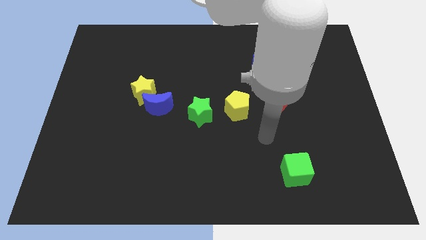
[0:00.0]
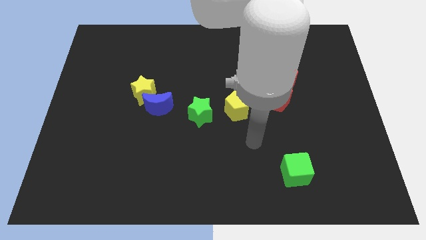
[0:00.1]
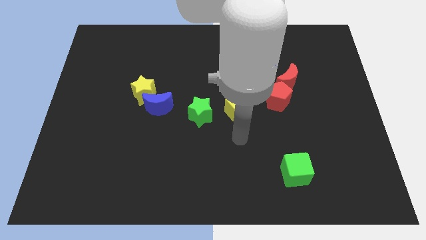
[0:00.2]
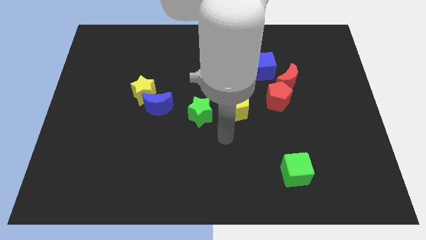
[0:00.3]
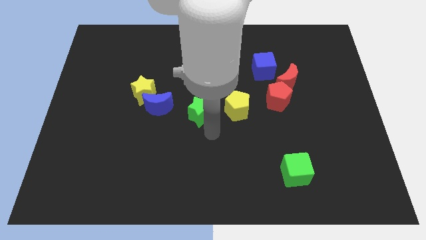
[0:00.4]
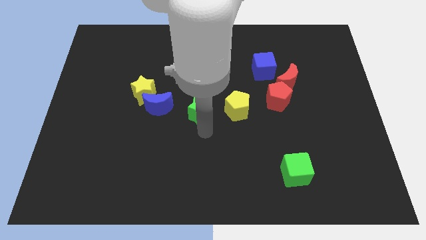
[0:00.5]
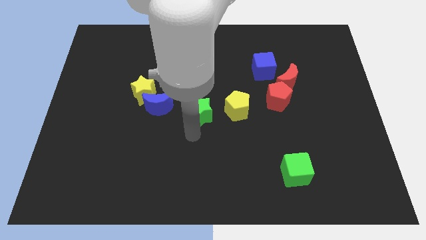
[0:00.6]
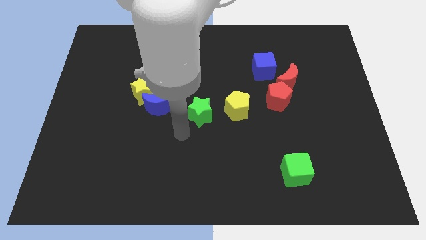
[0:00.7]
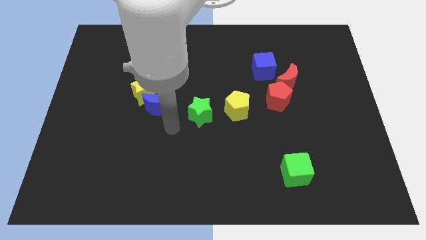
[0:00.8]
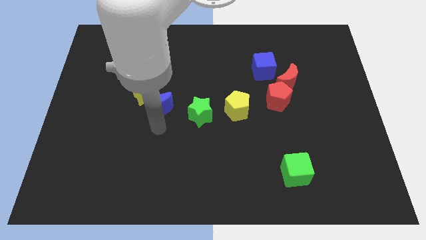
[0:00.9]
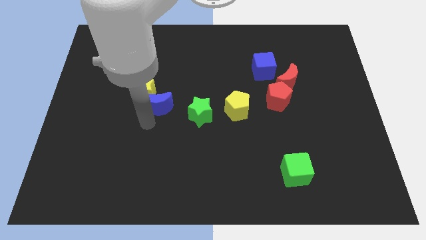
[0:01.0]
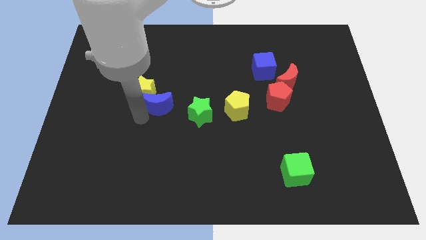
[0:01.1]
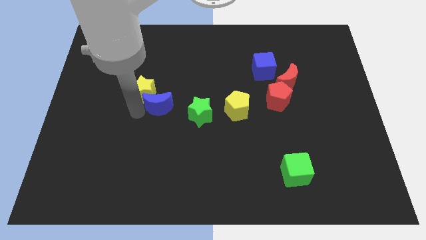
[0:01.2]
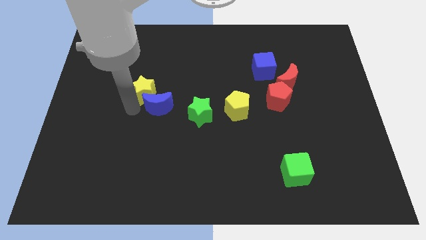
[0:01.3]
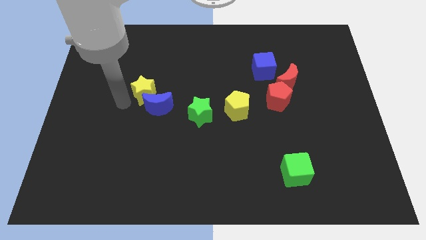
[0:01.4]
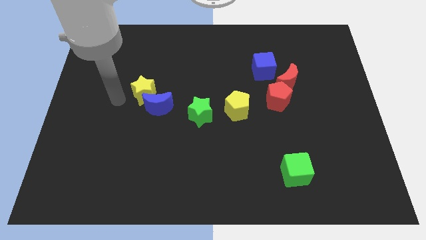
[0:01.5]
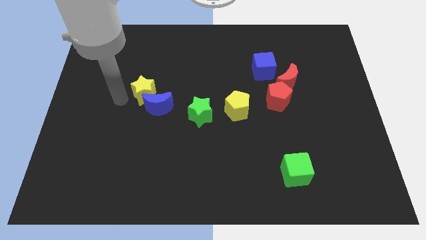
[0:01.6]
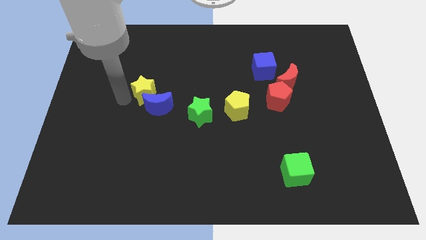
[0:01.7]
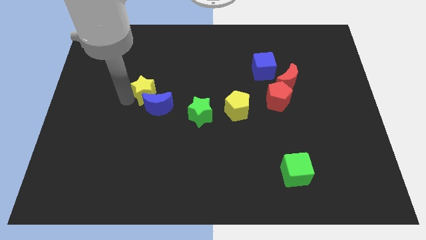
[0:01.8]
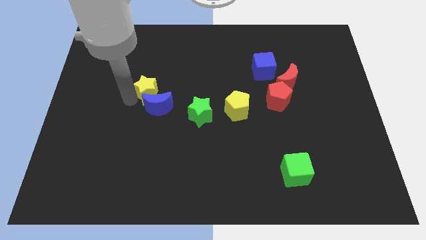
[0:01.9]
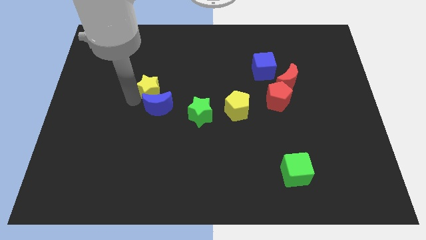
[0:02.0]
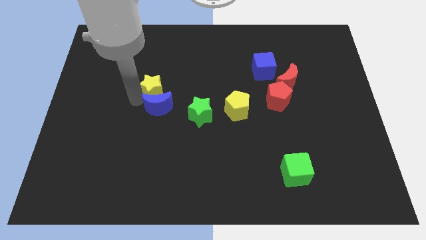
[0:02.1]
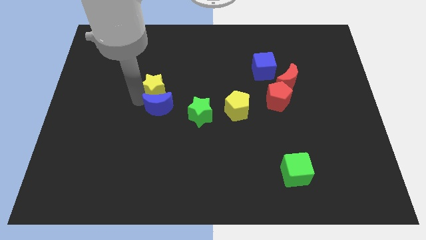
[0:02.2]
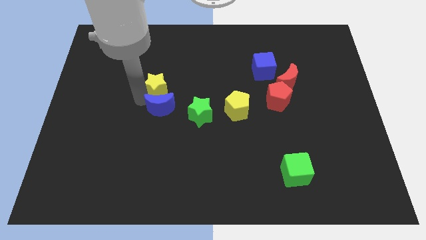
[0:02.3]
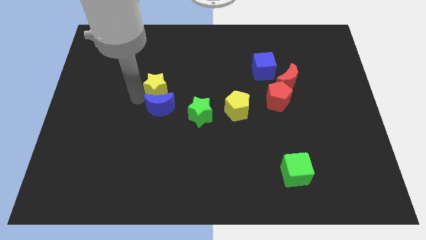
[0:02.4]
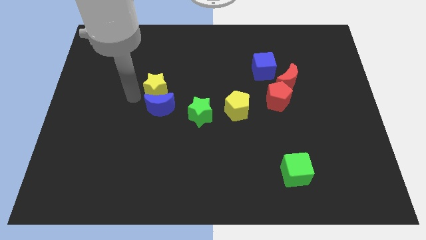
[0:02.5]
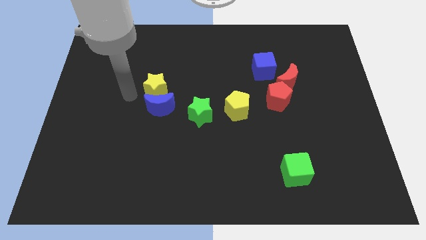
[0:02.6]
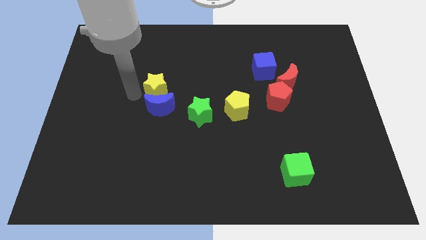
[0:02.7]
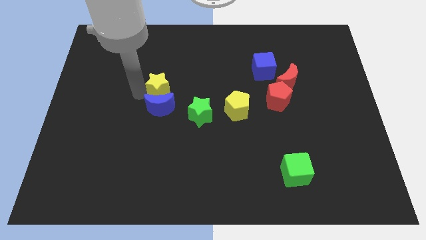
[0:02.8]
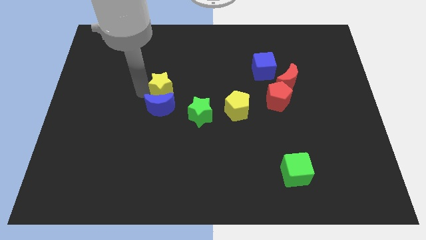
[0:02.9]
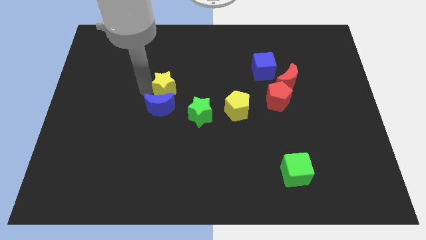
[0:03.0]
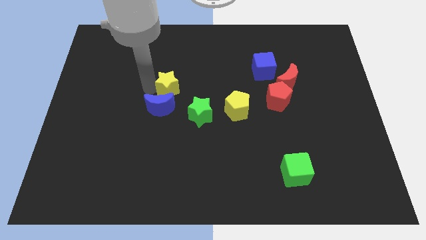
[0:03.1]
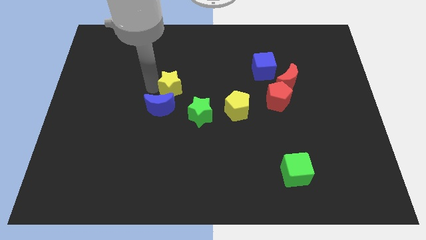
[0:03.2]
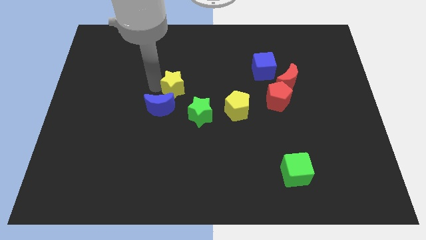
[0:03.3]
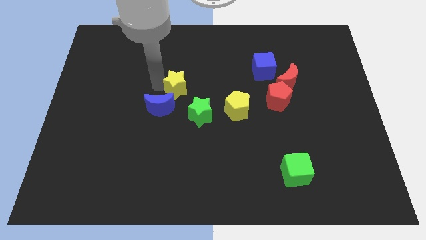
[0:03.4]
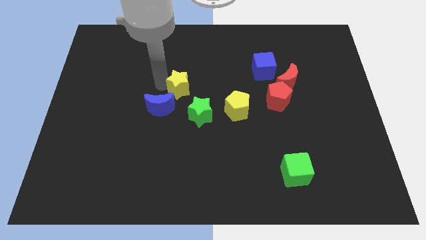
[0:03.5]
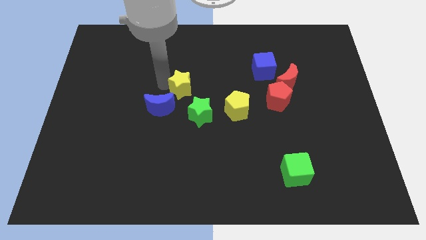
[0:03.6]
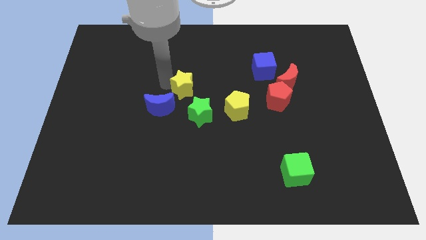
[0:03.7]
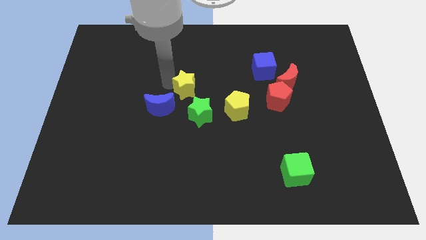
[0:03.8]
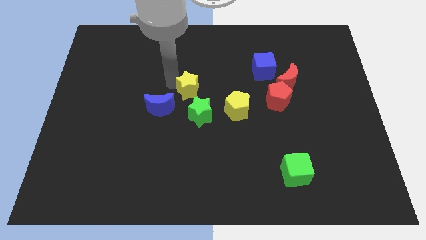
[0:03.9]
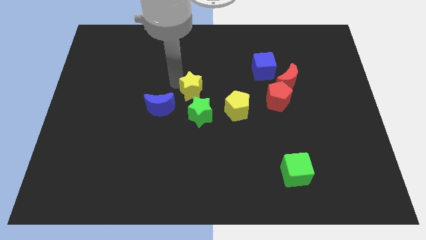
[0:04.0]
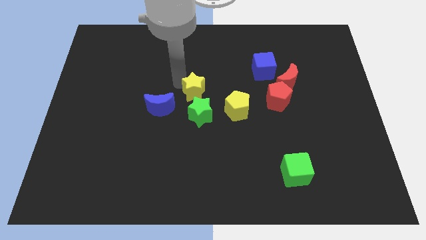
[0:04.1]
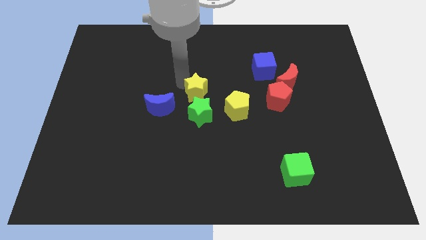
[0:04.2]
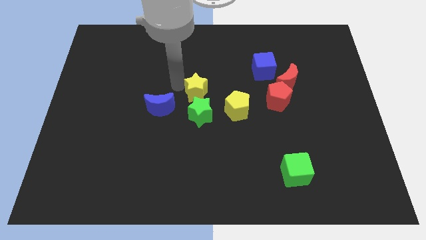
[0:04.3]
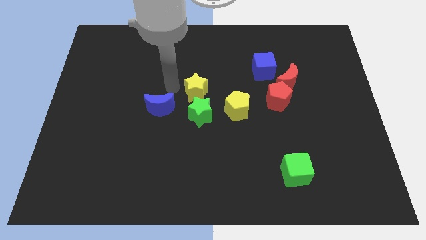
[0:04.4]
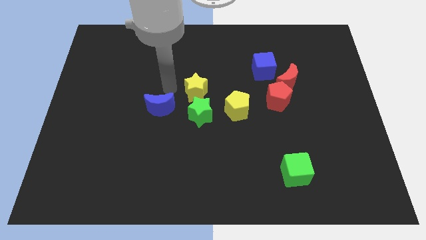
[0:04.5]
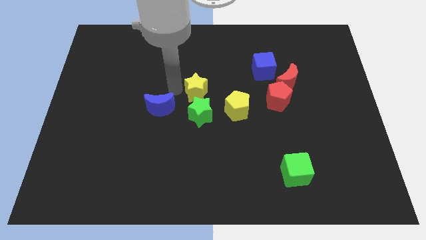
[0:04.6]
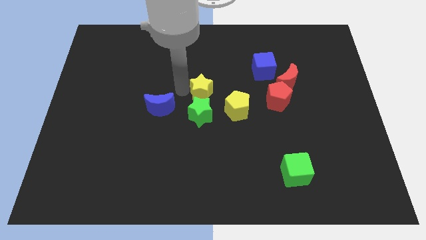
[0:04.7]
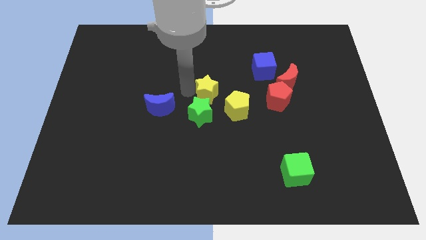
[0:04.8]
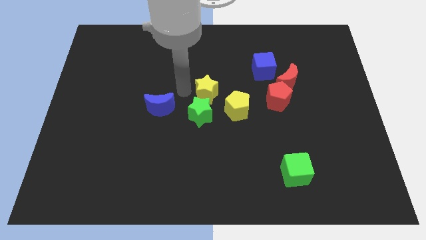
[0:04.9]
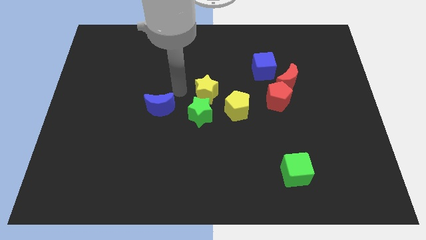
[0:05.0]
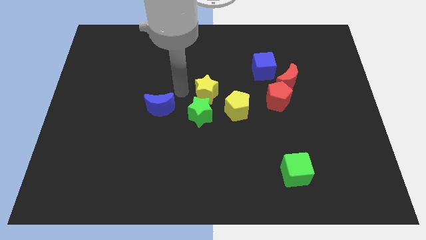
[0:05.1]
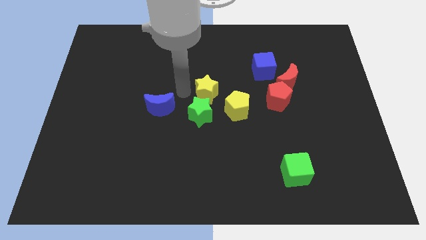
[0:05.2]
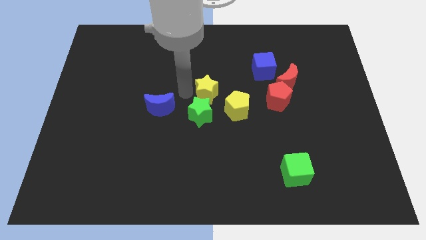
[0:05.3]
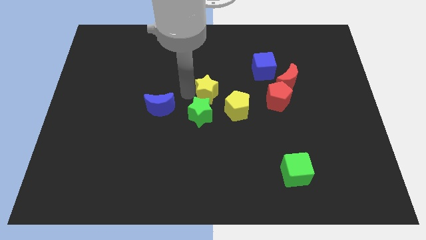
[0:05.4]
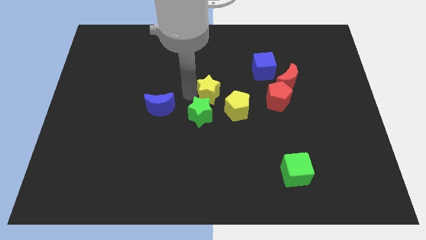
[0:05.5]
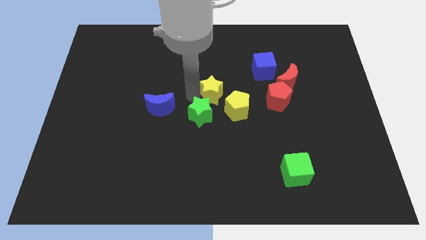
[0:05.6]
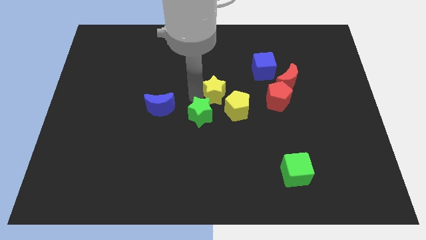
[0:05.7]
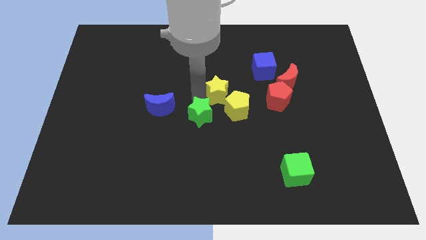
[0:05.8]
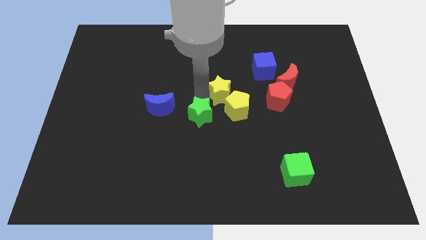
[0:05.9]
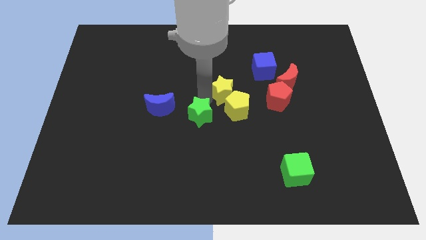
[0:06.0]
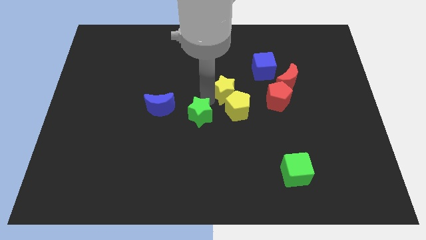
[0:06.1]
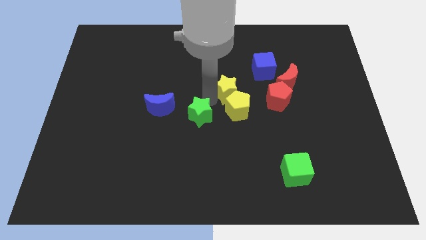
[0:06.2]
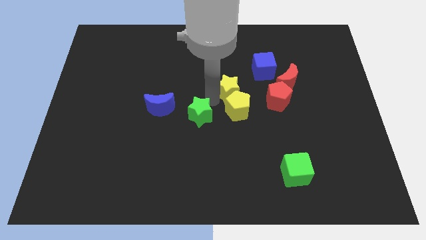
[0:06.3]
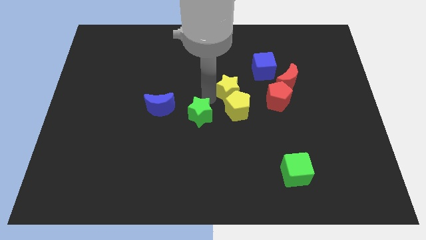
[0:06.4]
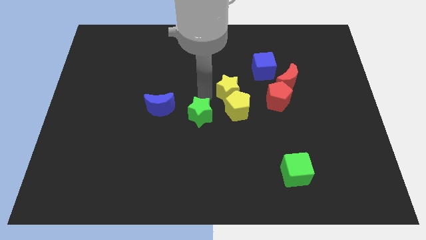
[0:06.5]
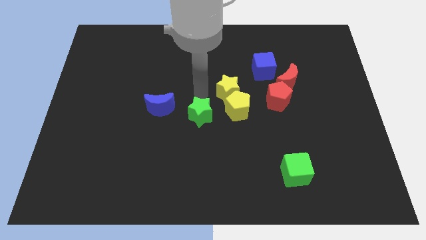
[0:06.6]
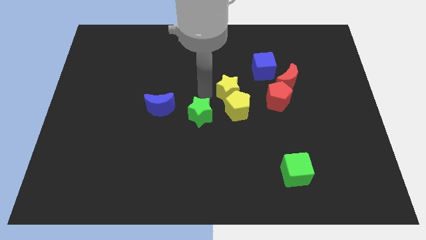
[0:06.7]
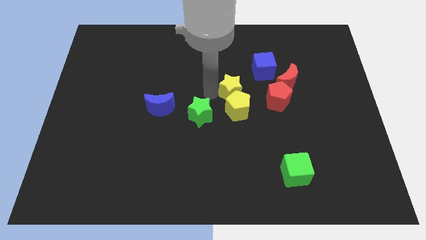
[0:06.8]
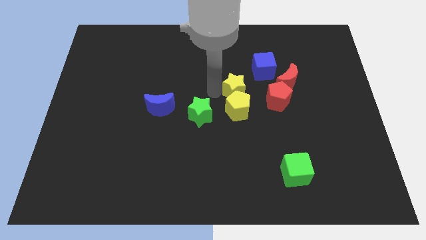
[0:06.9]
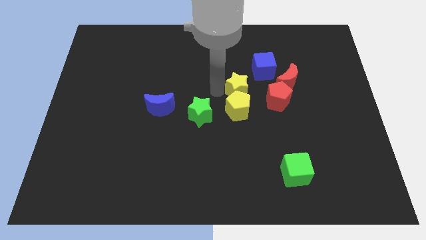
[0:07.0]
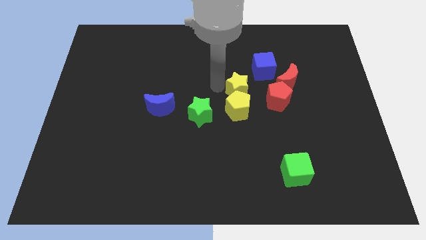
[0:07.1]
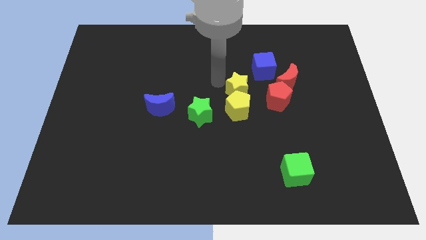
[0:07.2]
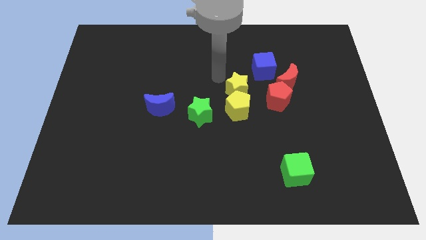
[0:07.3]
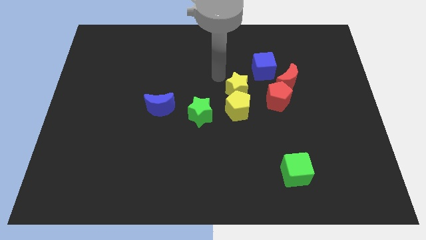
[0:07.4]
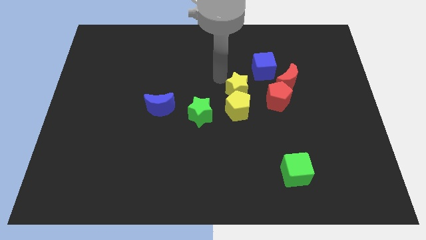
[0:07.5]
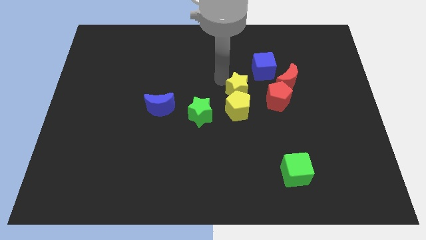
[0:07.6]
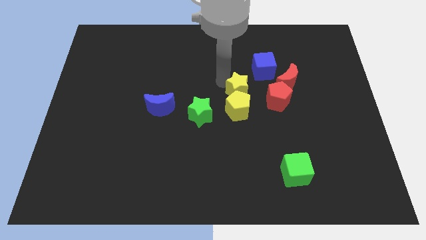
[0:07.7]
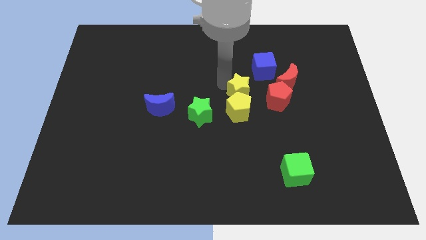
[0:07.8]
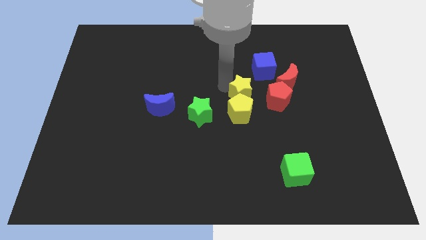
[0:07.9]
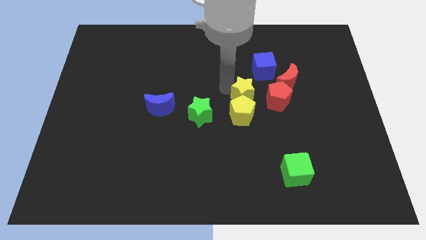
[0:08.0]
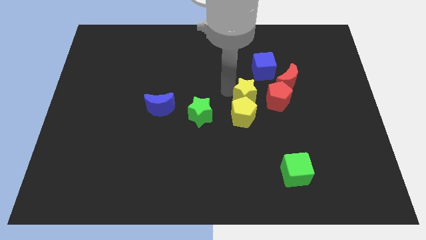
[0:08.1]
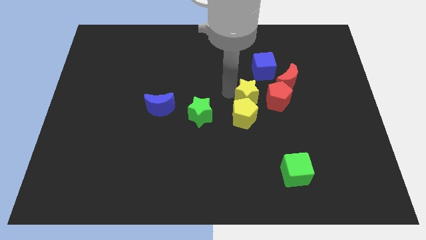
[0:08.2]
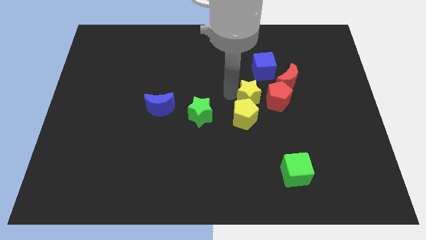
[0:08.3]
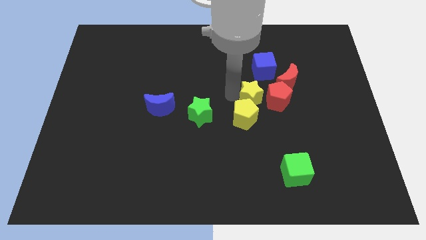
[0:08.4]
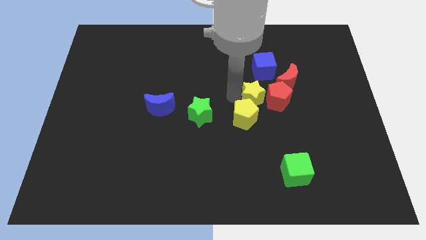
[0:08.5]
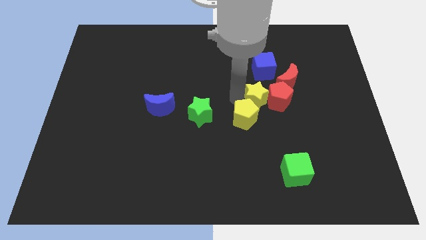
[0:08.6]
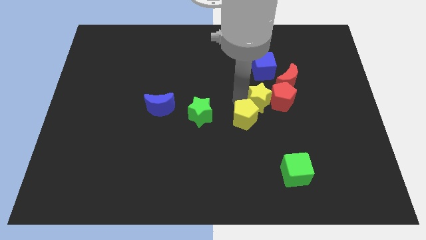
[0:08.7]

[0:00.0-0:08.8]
put the yellow star just right of the yellow pentagon
